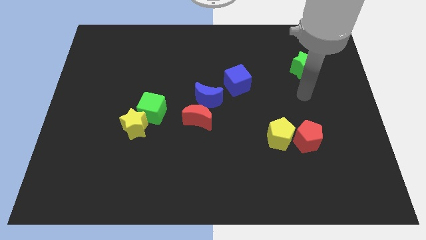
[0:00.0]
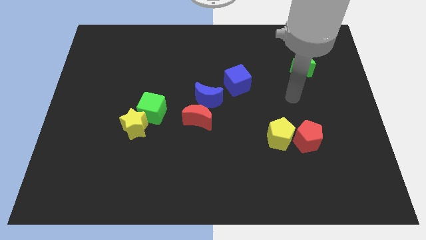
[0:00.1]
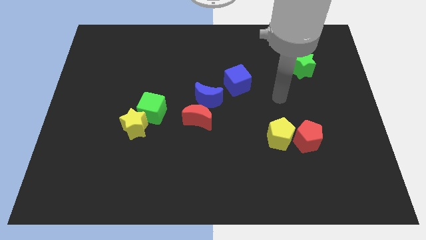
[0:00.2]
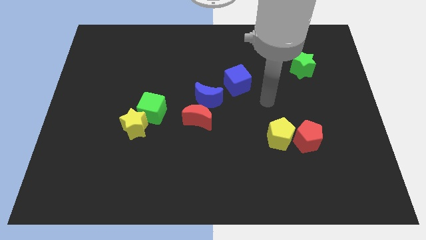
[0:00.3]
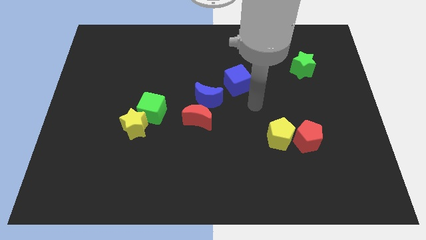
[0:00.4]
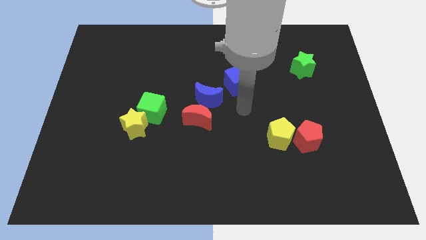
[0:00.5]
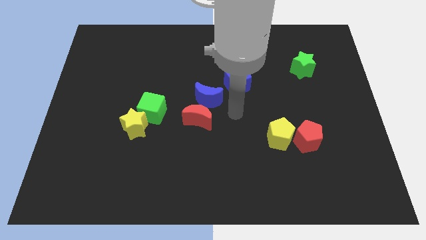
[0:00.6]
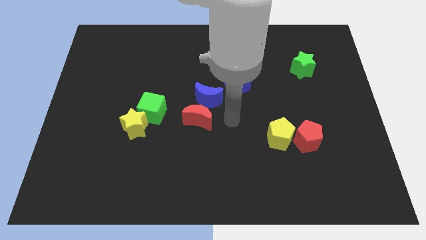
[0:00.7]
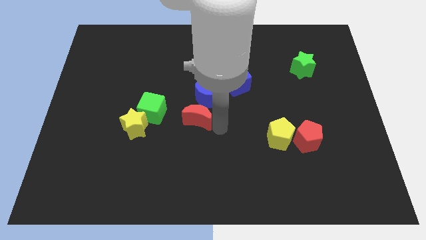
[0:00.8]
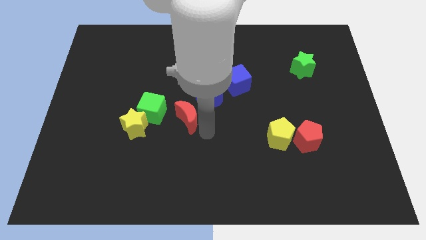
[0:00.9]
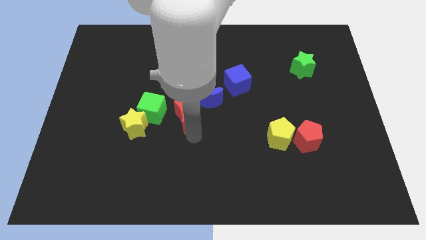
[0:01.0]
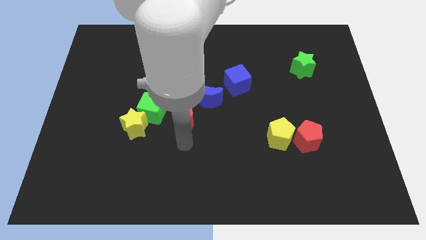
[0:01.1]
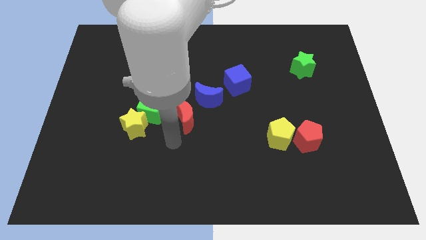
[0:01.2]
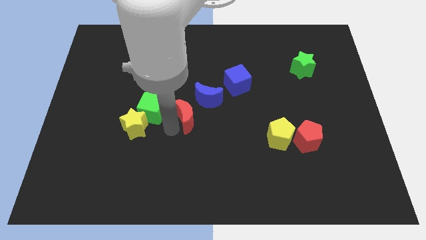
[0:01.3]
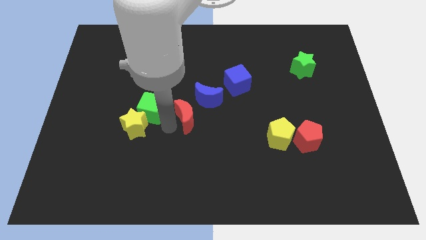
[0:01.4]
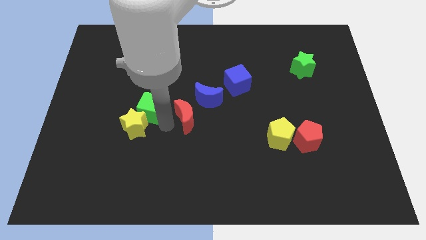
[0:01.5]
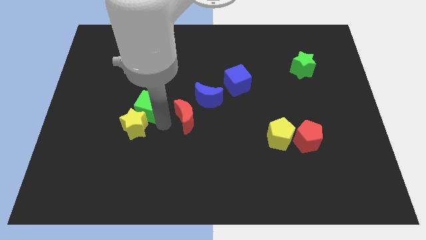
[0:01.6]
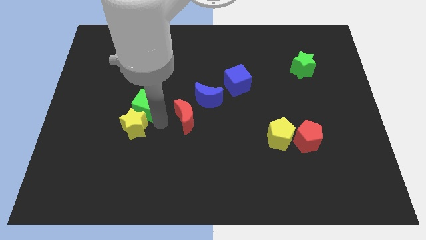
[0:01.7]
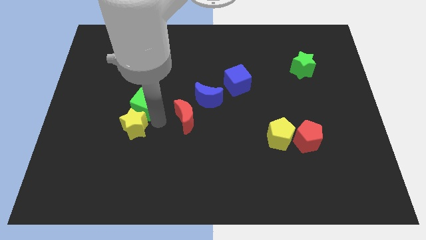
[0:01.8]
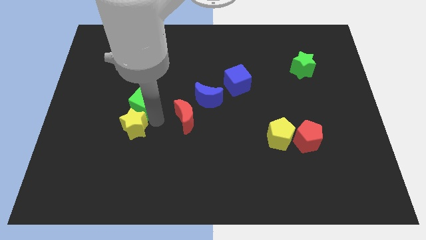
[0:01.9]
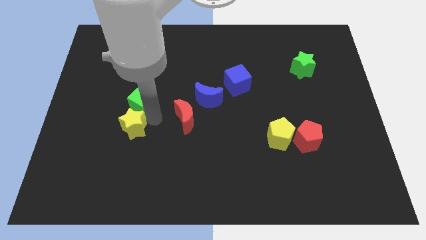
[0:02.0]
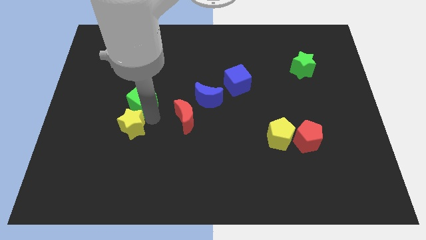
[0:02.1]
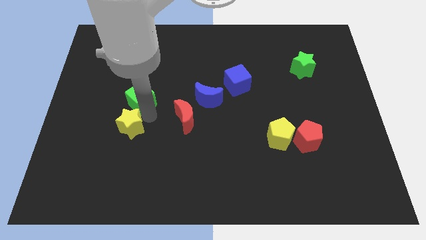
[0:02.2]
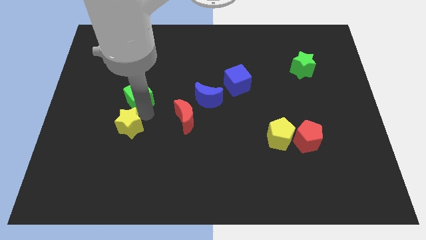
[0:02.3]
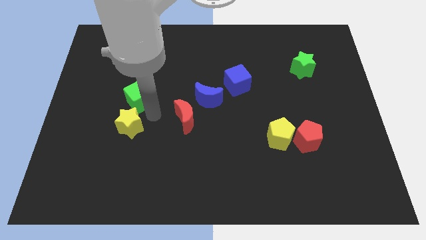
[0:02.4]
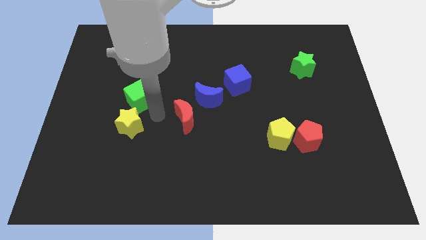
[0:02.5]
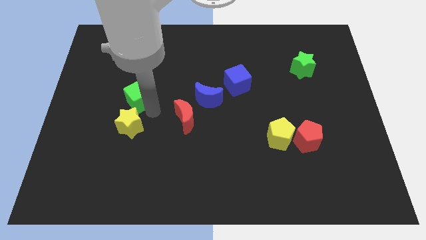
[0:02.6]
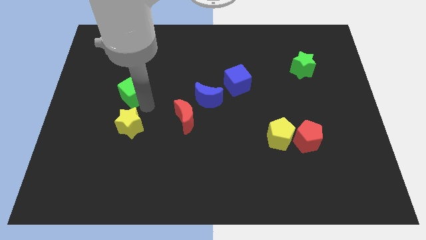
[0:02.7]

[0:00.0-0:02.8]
move the green cube diagonally up and left a bit

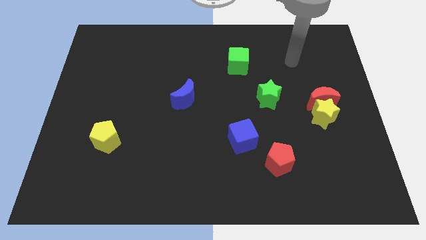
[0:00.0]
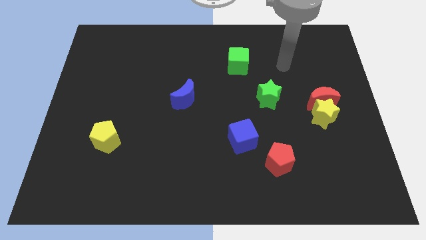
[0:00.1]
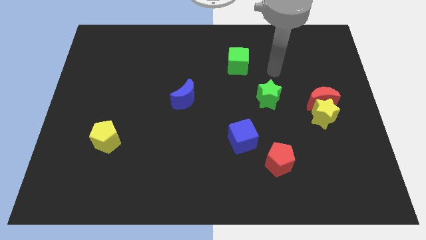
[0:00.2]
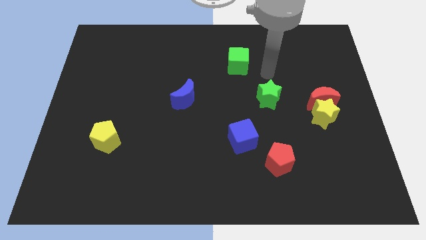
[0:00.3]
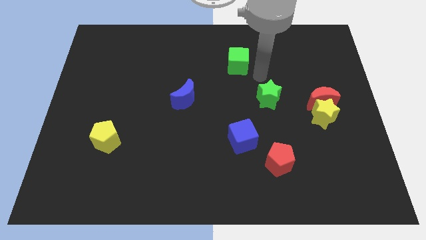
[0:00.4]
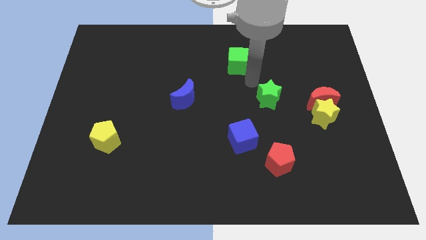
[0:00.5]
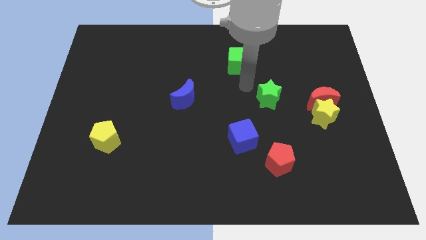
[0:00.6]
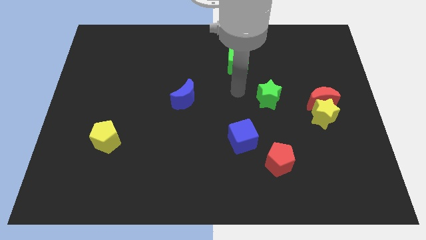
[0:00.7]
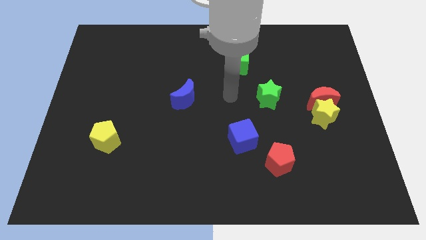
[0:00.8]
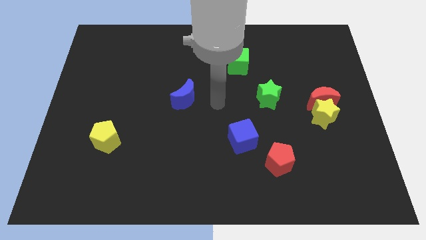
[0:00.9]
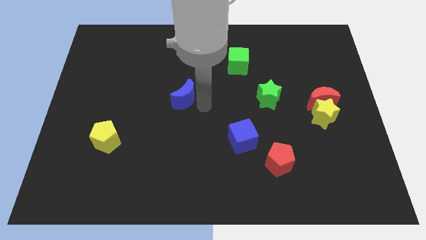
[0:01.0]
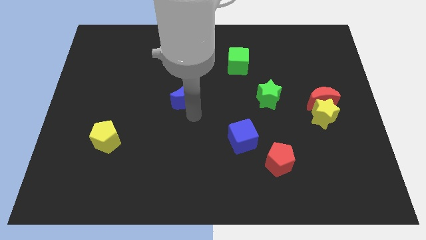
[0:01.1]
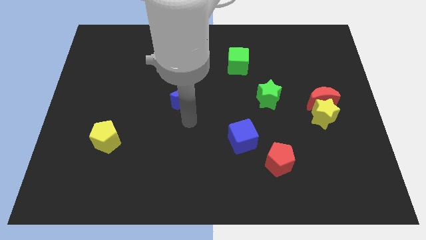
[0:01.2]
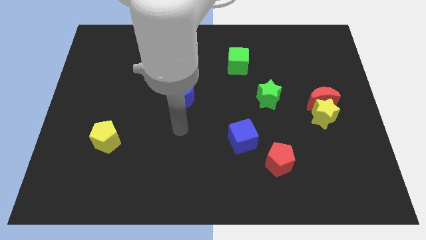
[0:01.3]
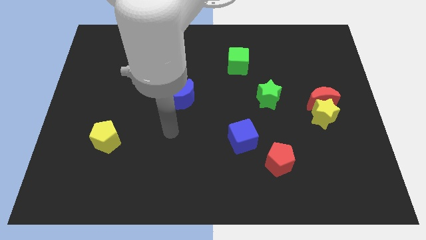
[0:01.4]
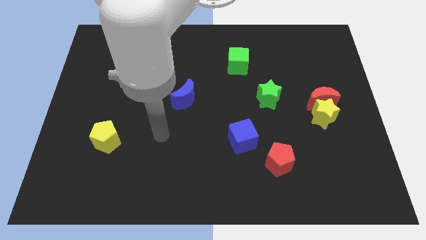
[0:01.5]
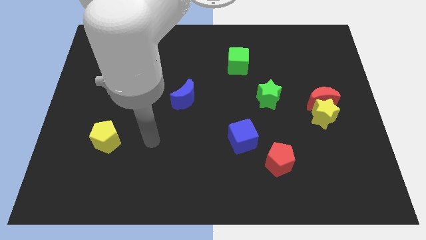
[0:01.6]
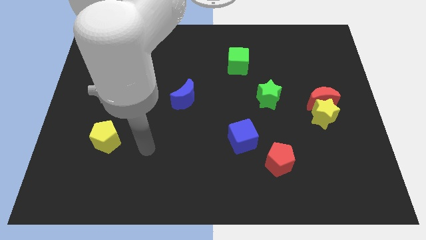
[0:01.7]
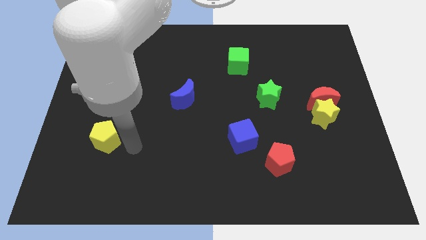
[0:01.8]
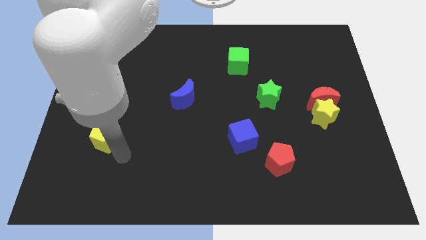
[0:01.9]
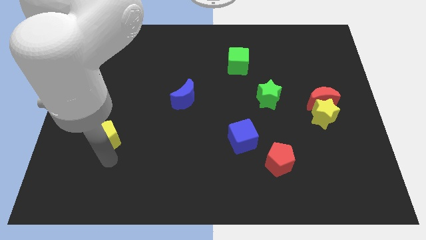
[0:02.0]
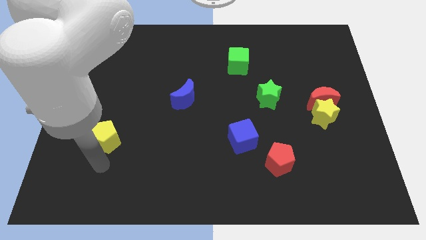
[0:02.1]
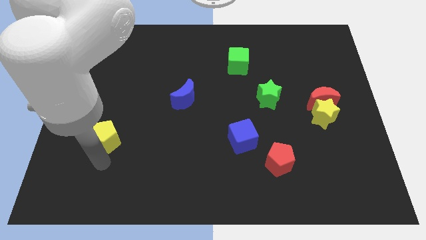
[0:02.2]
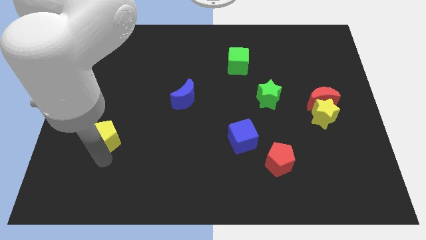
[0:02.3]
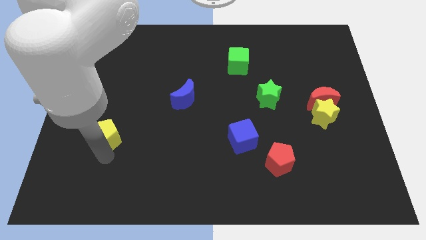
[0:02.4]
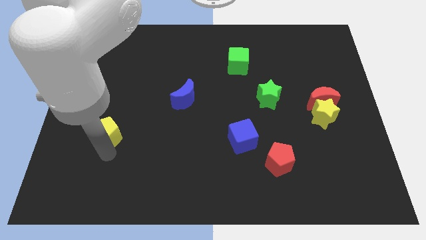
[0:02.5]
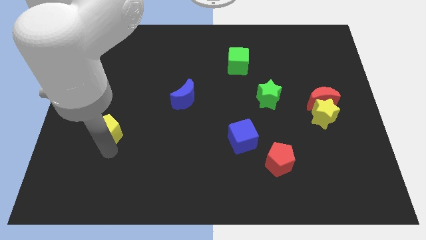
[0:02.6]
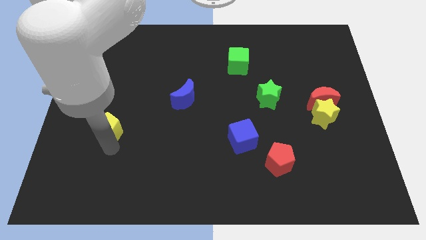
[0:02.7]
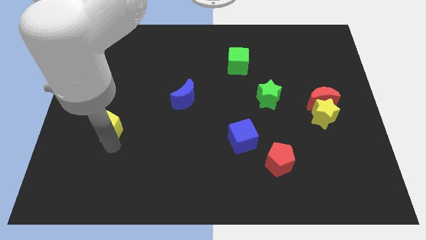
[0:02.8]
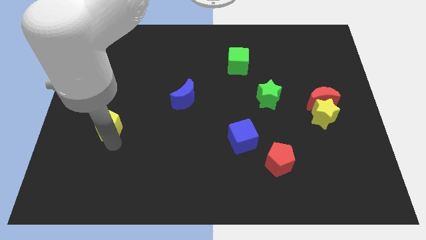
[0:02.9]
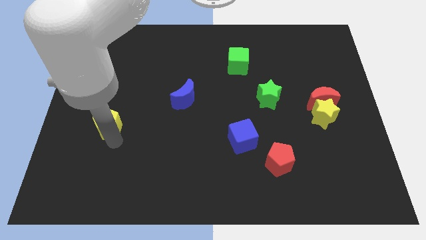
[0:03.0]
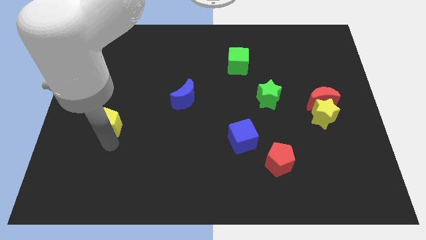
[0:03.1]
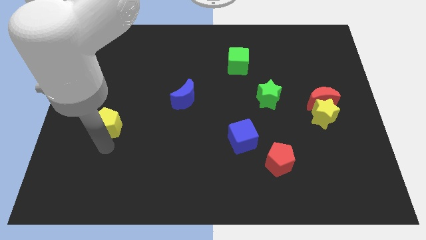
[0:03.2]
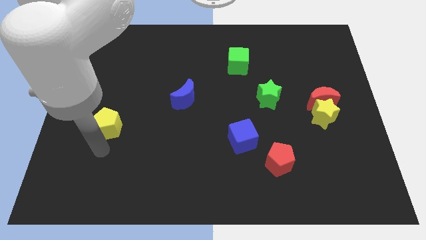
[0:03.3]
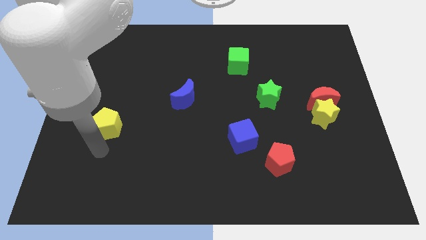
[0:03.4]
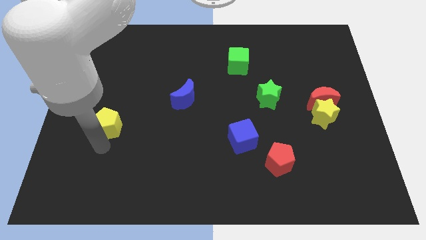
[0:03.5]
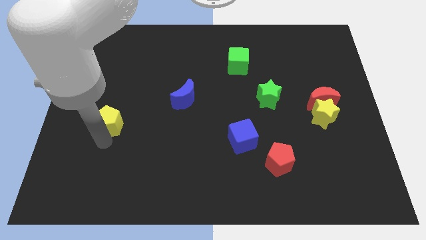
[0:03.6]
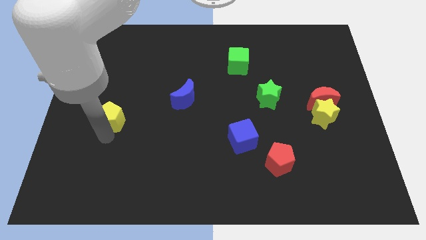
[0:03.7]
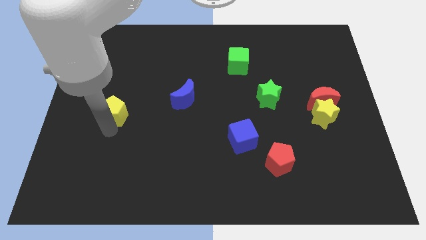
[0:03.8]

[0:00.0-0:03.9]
slide the yellow pentagon up a little bit

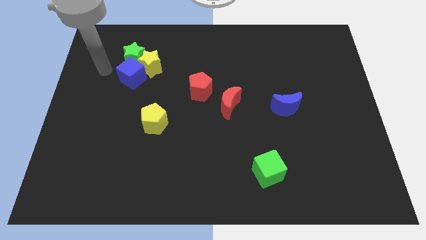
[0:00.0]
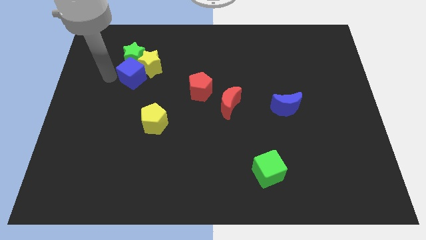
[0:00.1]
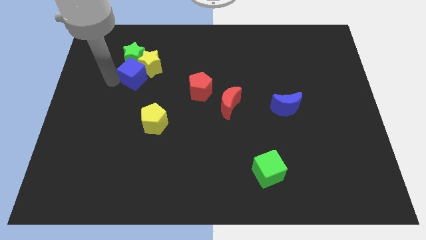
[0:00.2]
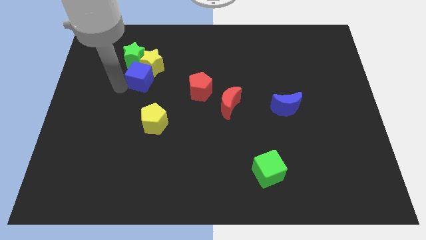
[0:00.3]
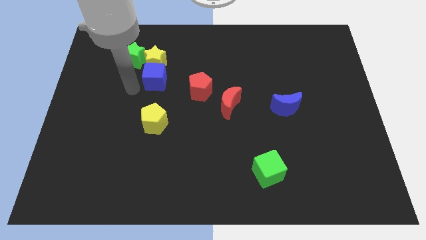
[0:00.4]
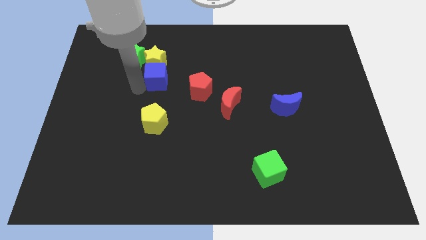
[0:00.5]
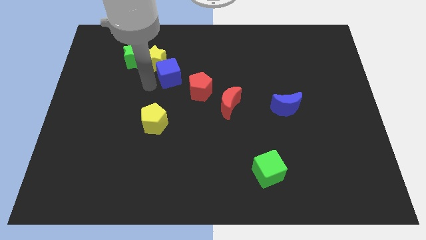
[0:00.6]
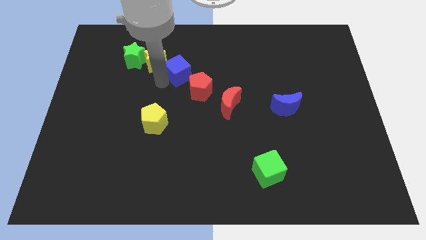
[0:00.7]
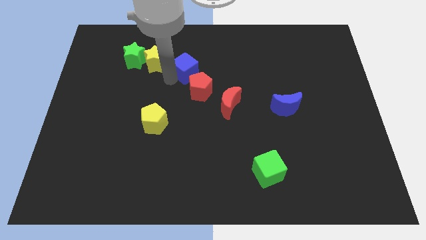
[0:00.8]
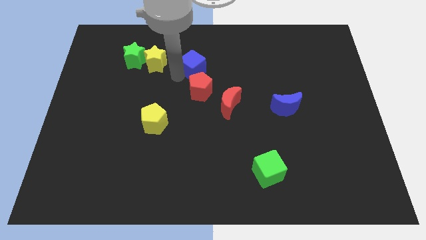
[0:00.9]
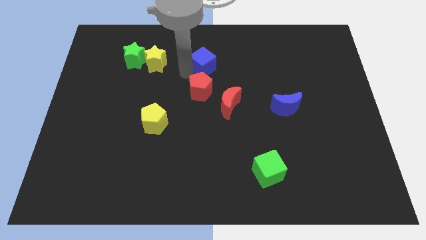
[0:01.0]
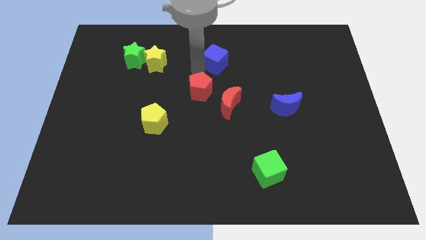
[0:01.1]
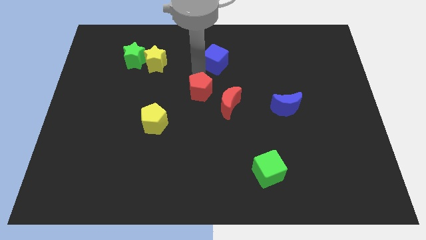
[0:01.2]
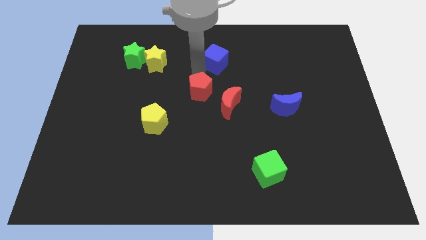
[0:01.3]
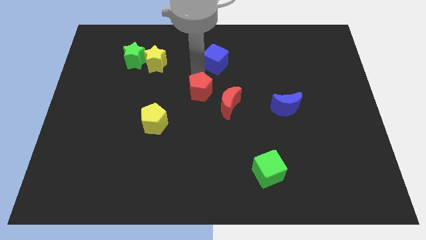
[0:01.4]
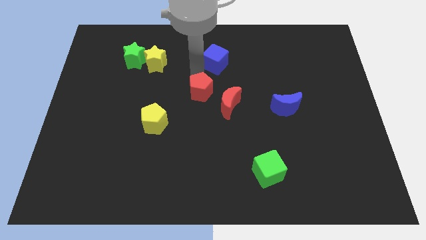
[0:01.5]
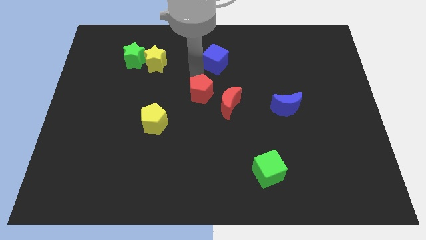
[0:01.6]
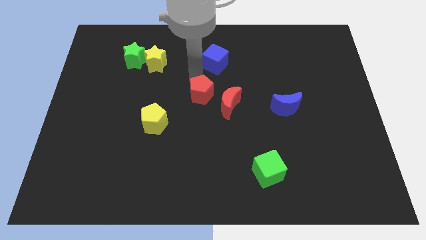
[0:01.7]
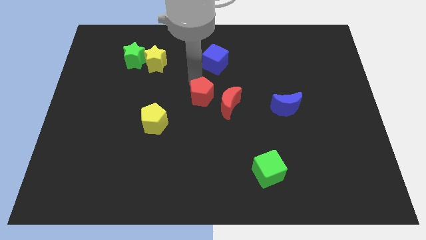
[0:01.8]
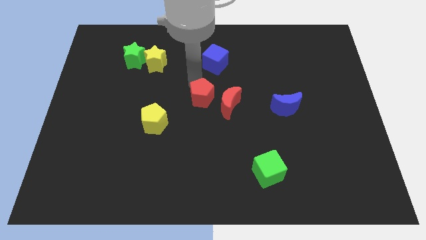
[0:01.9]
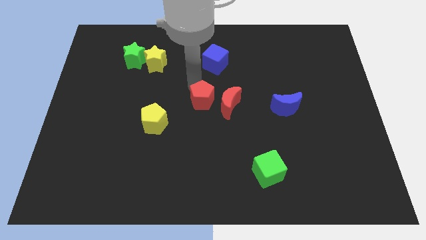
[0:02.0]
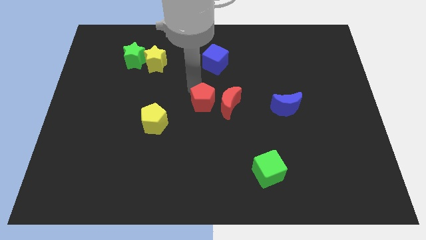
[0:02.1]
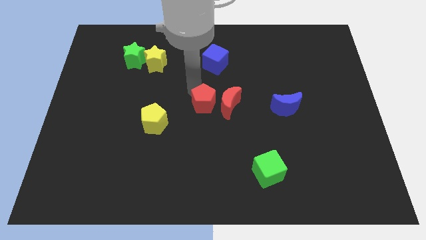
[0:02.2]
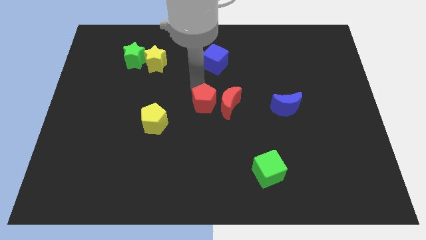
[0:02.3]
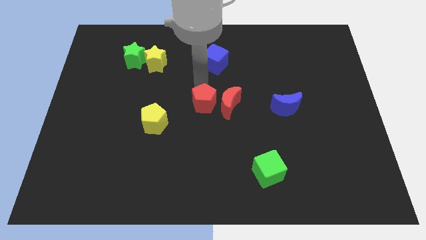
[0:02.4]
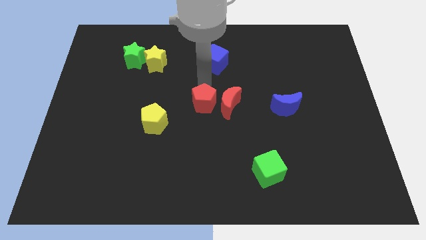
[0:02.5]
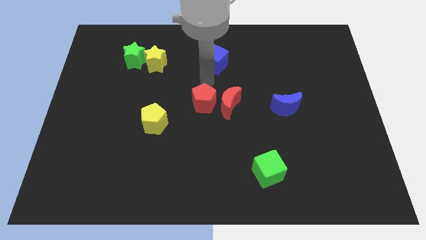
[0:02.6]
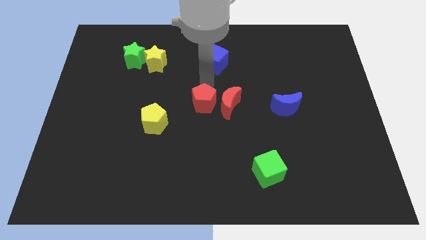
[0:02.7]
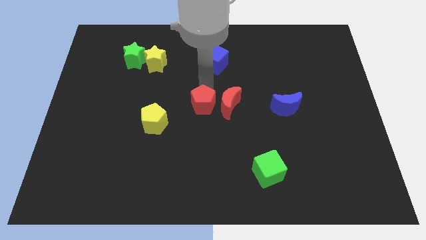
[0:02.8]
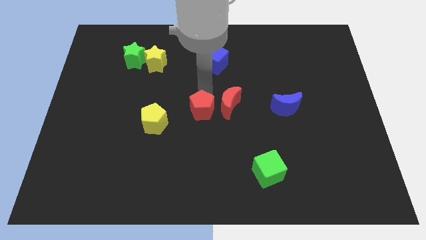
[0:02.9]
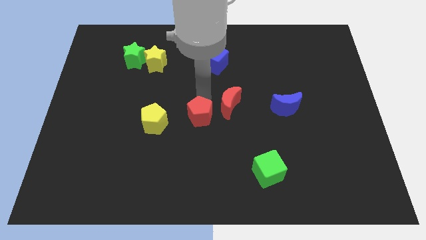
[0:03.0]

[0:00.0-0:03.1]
move the red pentagon slightly down
